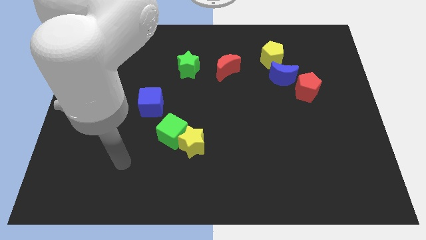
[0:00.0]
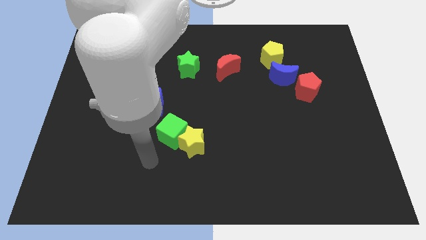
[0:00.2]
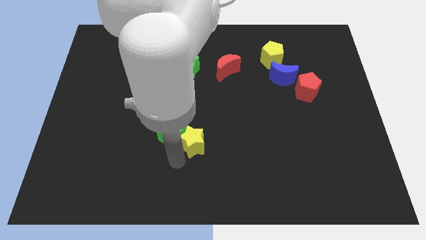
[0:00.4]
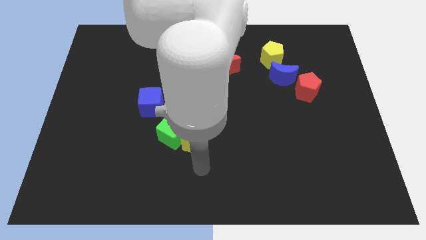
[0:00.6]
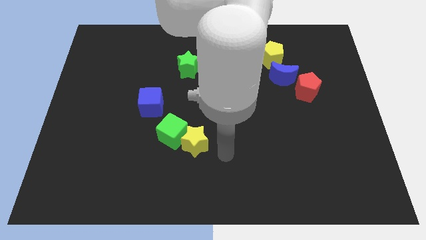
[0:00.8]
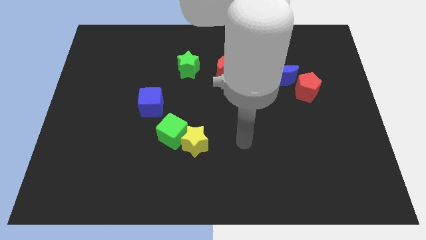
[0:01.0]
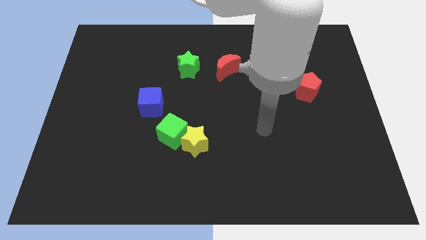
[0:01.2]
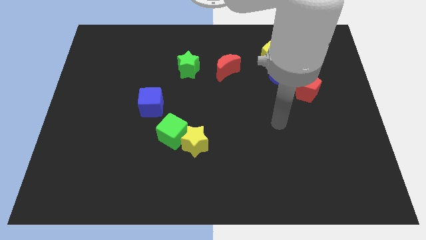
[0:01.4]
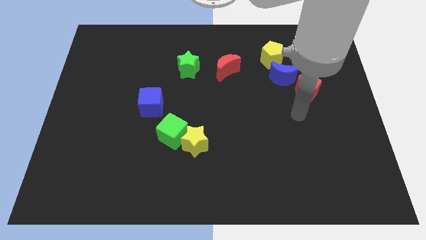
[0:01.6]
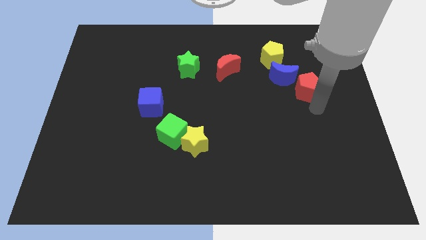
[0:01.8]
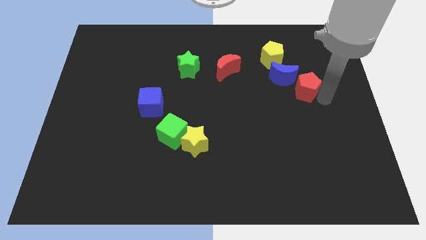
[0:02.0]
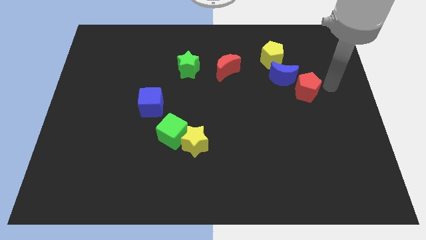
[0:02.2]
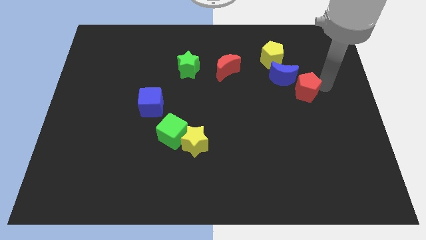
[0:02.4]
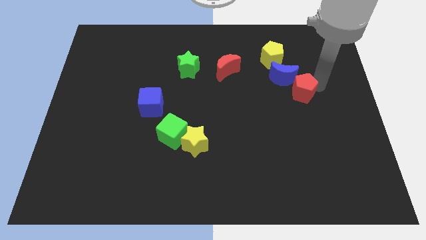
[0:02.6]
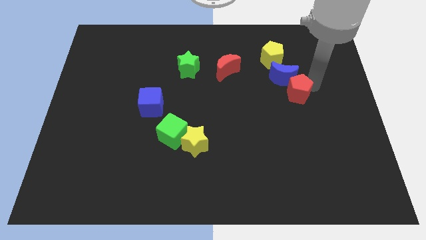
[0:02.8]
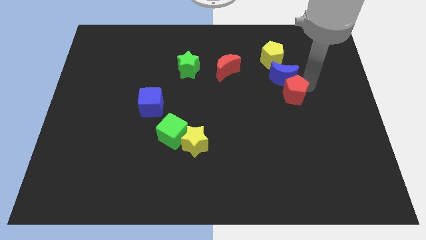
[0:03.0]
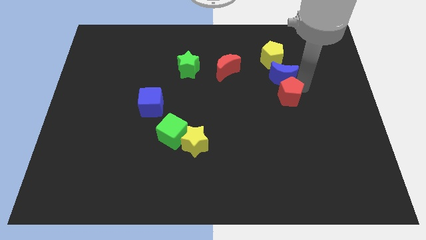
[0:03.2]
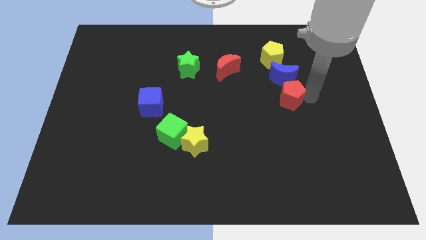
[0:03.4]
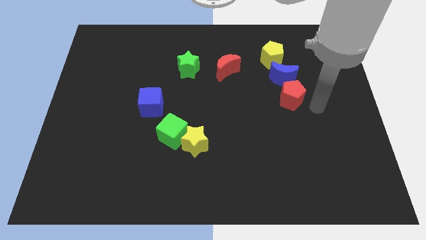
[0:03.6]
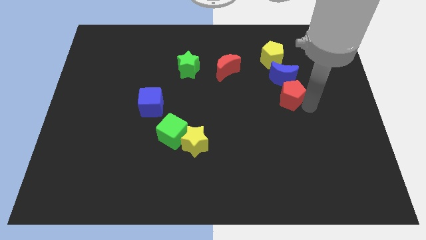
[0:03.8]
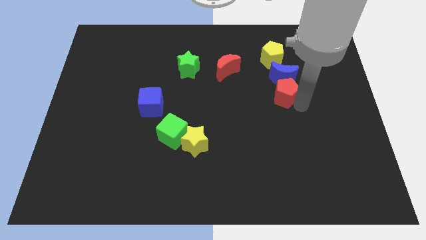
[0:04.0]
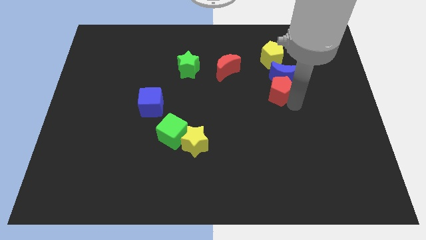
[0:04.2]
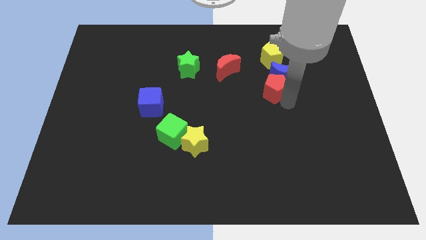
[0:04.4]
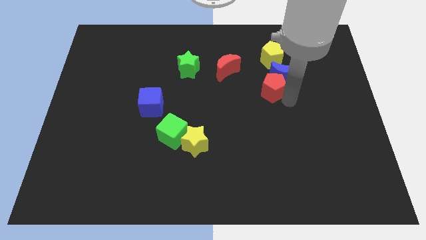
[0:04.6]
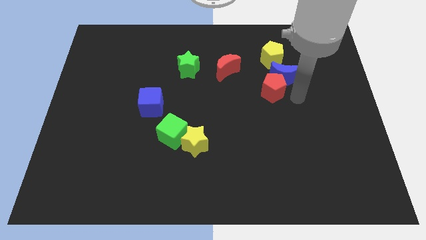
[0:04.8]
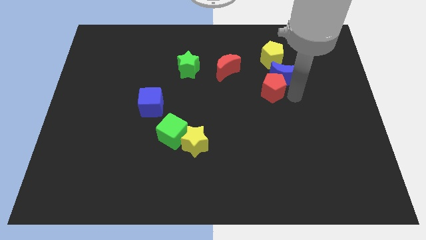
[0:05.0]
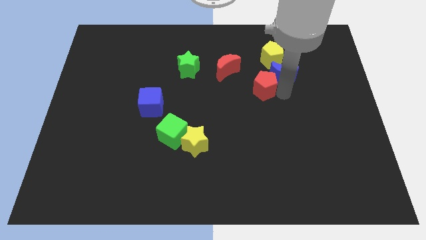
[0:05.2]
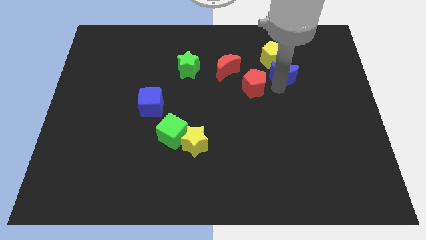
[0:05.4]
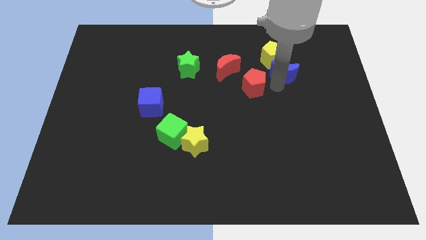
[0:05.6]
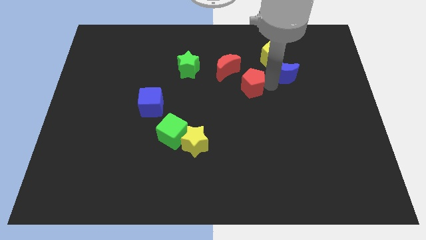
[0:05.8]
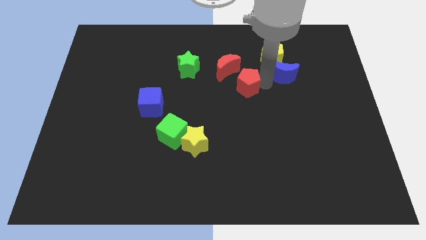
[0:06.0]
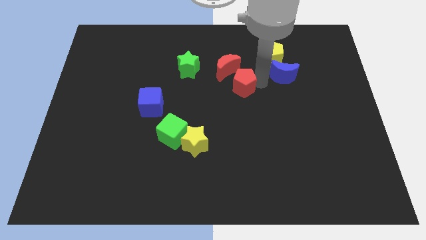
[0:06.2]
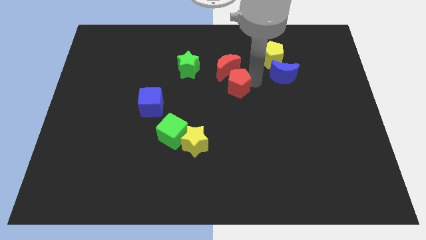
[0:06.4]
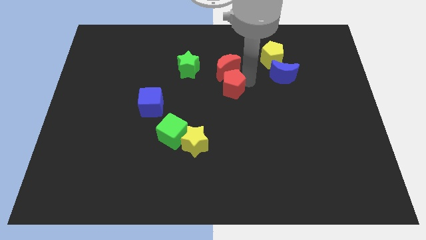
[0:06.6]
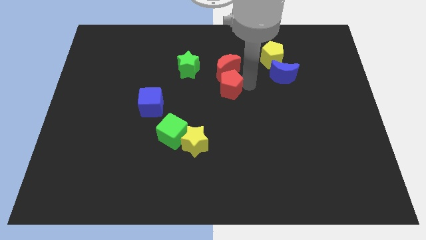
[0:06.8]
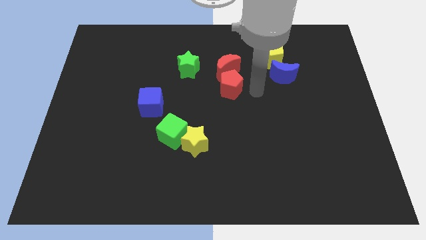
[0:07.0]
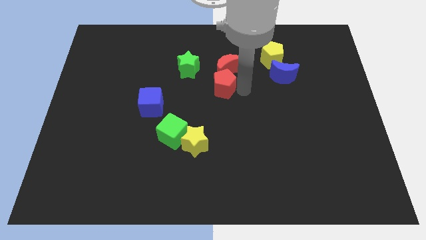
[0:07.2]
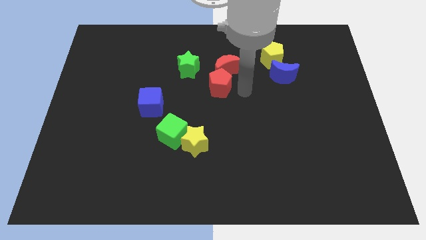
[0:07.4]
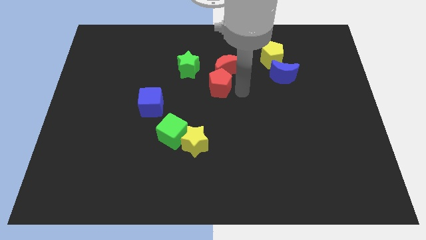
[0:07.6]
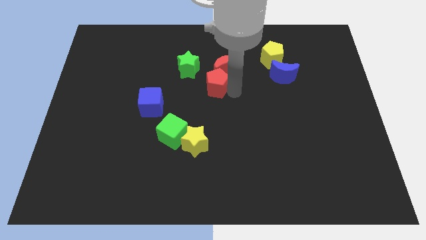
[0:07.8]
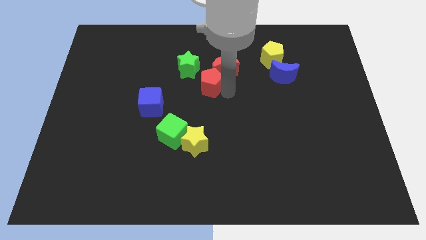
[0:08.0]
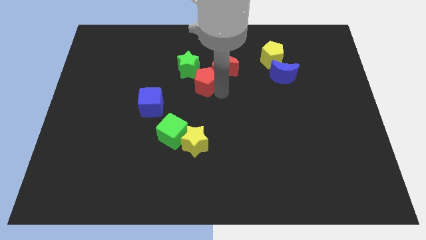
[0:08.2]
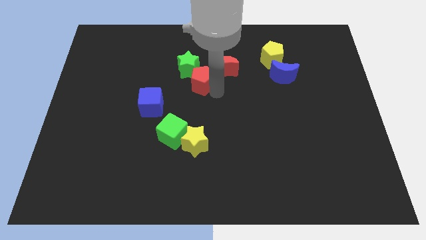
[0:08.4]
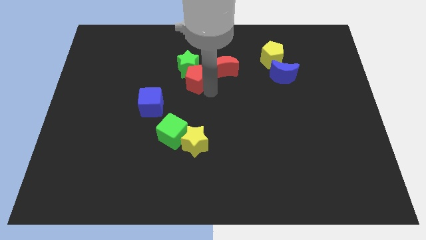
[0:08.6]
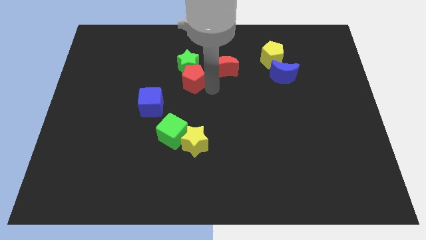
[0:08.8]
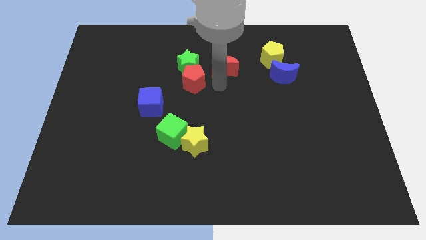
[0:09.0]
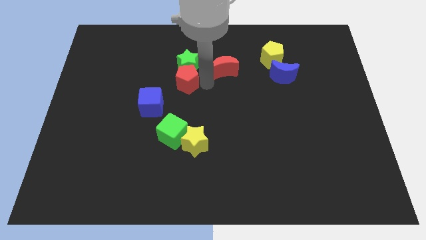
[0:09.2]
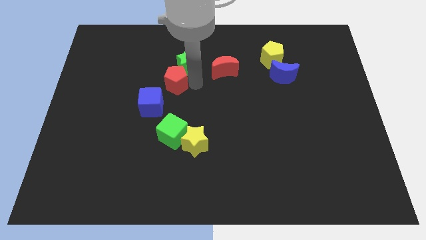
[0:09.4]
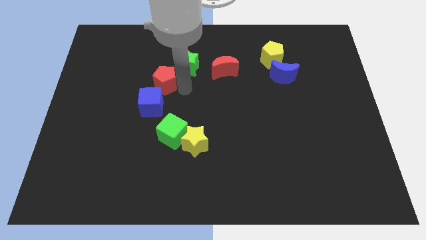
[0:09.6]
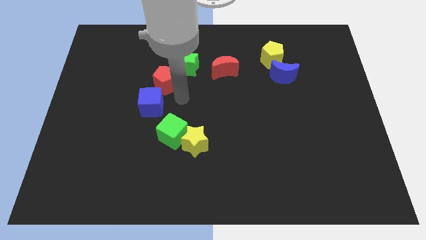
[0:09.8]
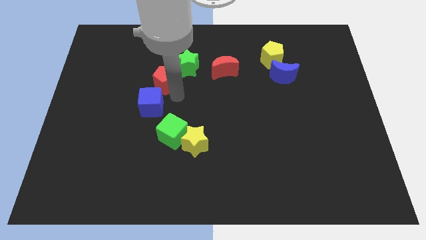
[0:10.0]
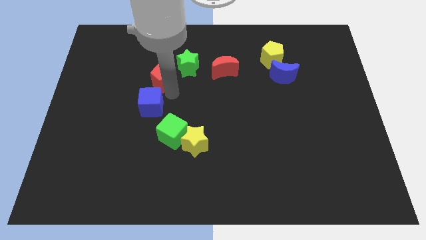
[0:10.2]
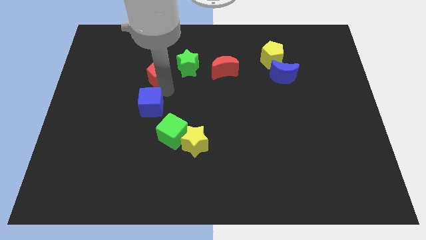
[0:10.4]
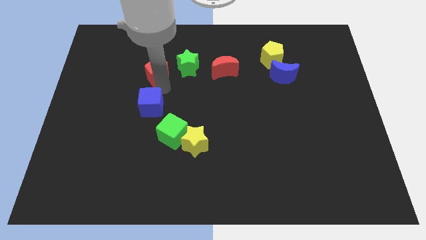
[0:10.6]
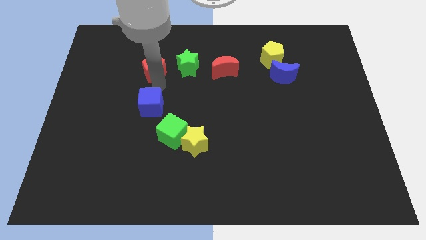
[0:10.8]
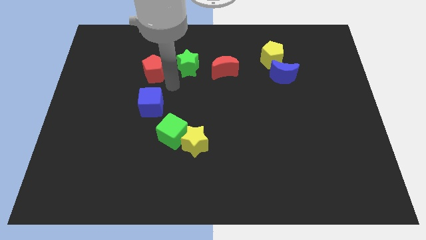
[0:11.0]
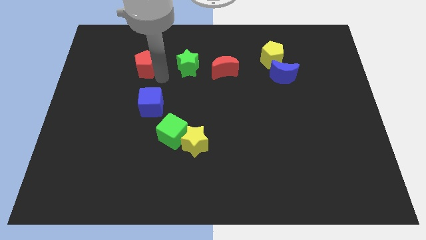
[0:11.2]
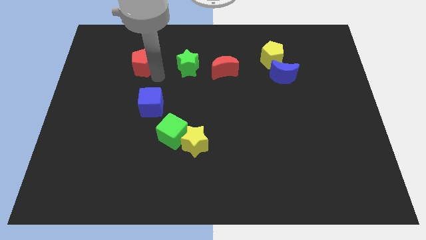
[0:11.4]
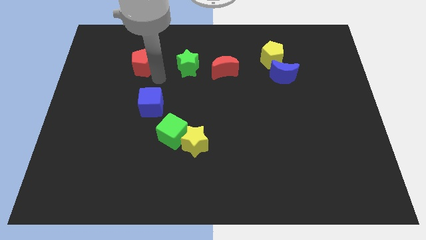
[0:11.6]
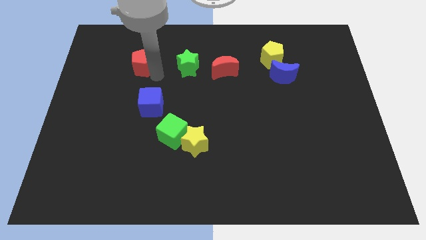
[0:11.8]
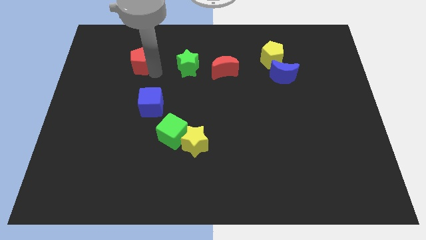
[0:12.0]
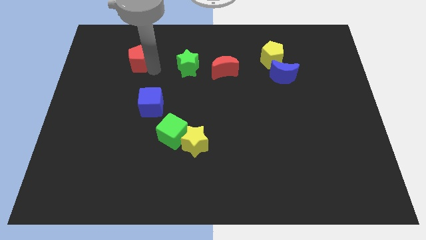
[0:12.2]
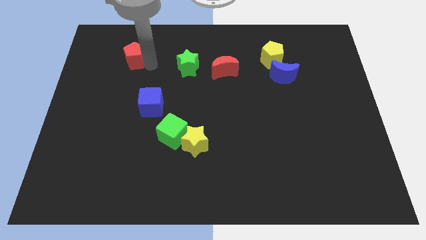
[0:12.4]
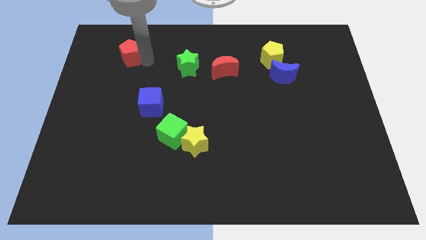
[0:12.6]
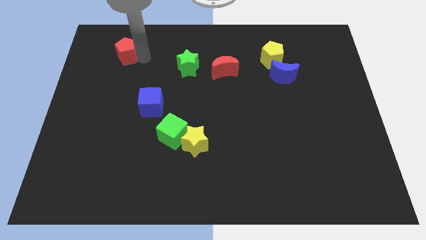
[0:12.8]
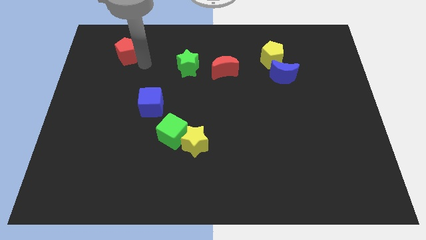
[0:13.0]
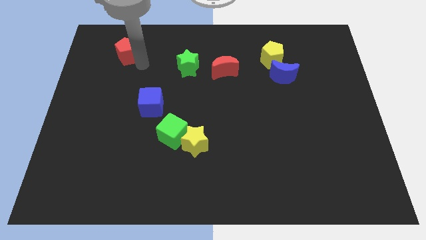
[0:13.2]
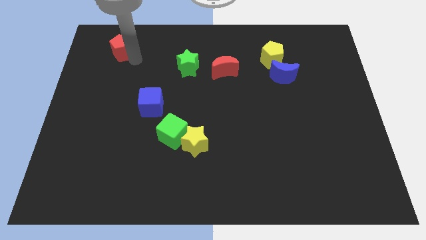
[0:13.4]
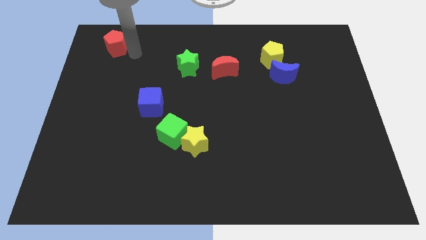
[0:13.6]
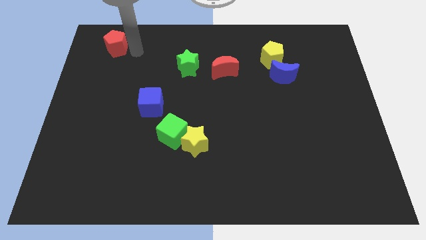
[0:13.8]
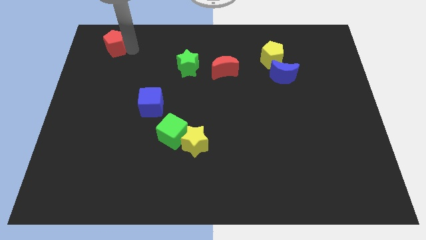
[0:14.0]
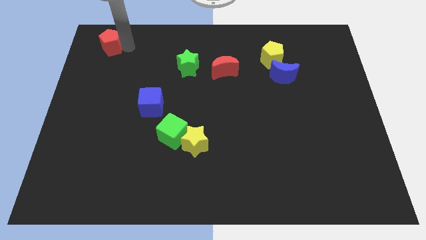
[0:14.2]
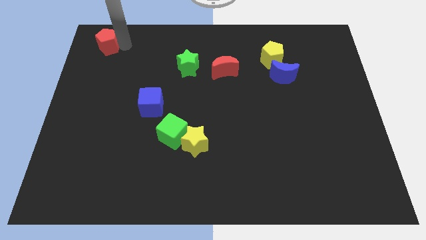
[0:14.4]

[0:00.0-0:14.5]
move the red pentagon to the top left corner
